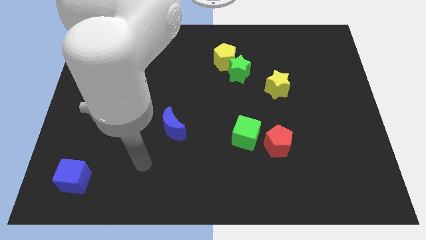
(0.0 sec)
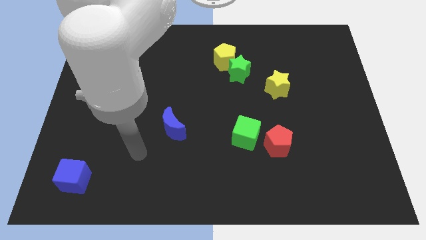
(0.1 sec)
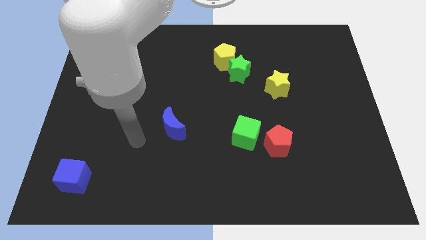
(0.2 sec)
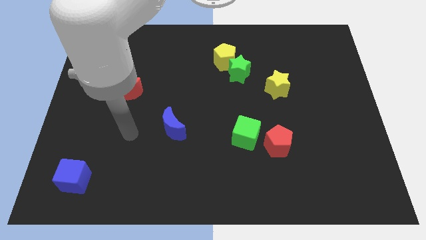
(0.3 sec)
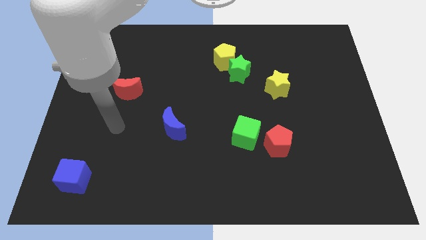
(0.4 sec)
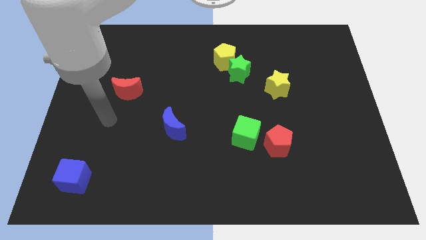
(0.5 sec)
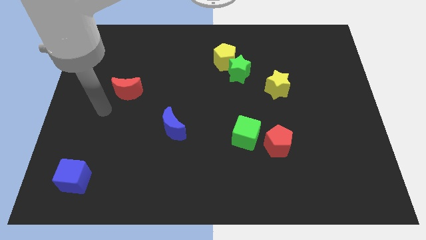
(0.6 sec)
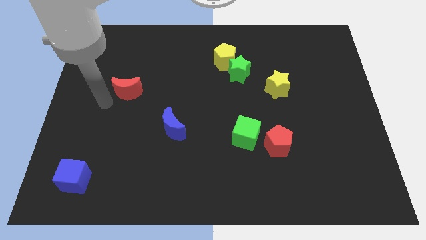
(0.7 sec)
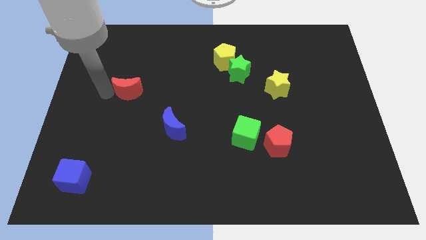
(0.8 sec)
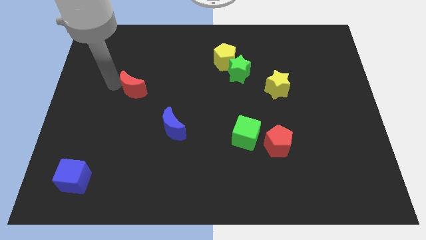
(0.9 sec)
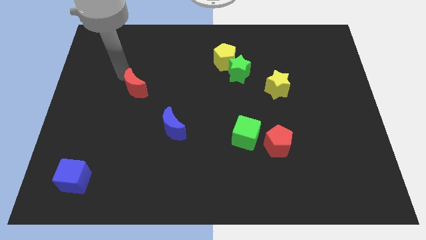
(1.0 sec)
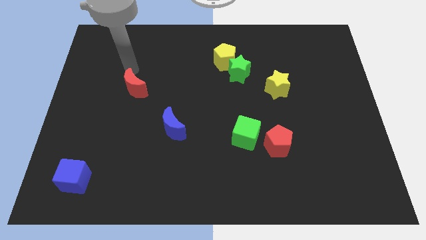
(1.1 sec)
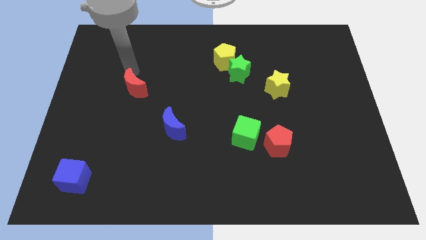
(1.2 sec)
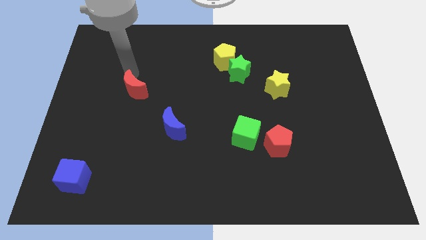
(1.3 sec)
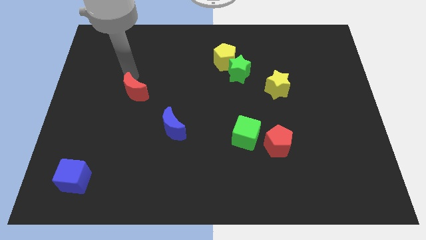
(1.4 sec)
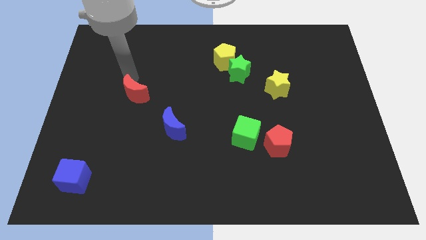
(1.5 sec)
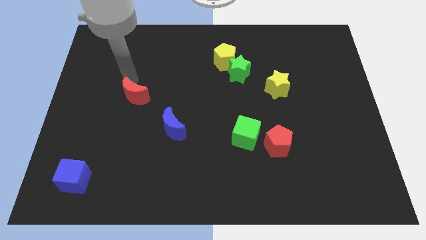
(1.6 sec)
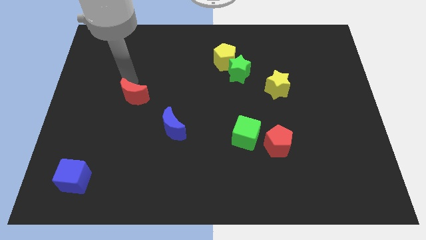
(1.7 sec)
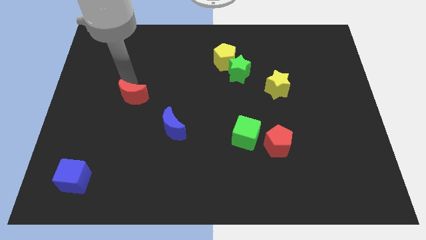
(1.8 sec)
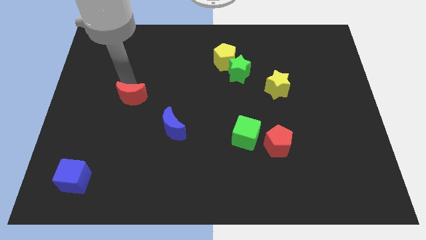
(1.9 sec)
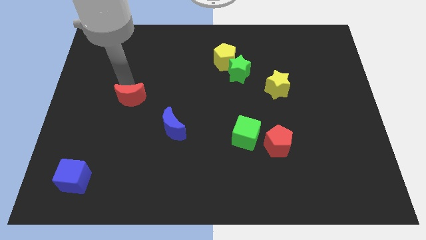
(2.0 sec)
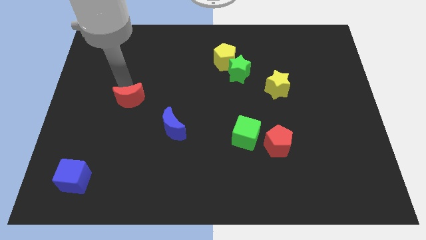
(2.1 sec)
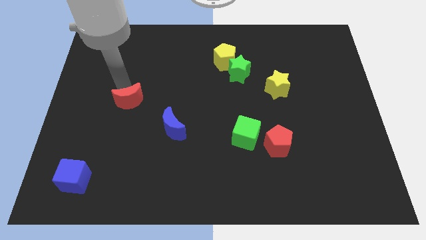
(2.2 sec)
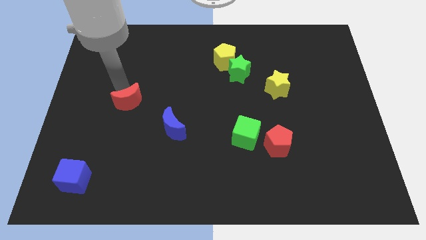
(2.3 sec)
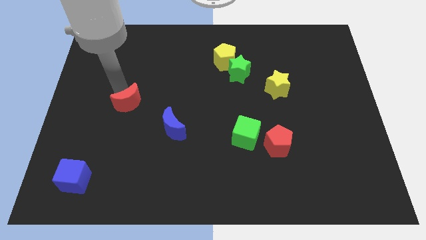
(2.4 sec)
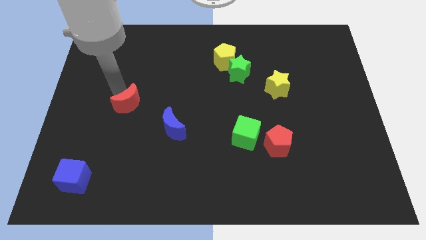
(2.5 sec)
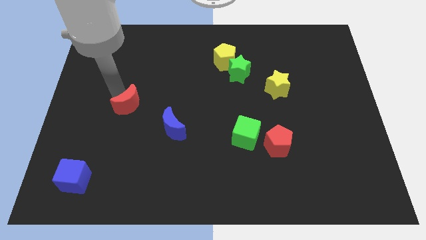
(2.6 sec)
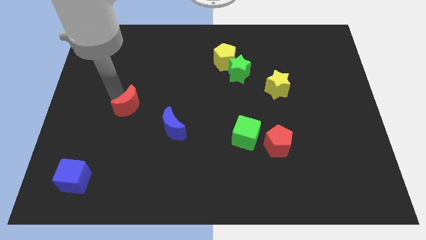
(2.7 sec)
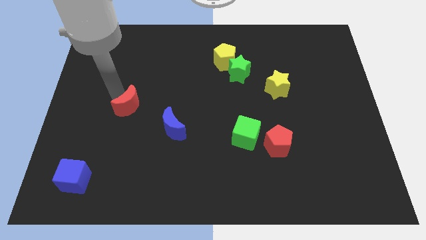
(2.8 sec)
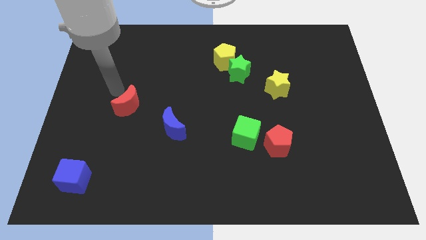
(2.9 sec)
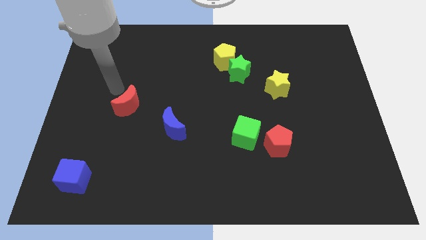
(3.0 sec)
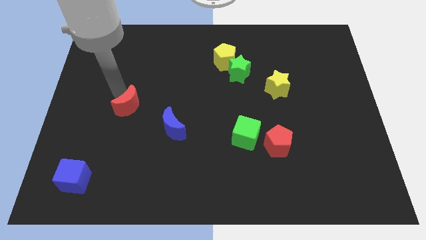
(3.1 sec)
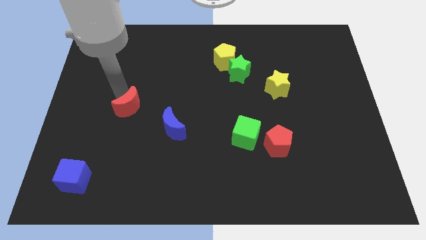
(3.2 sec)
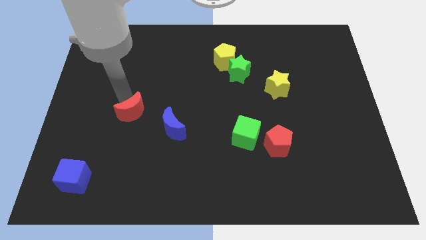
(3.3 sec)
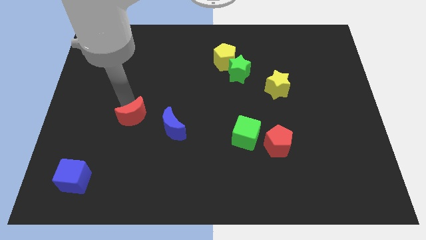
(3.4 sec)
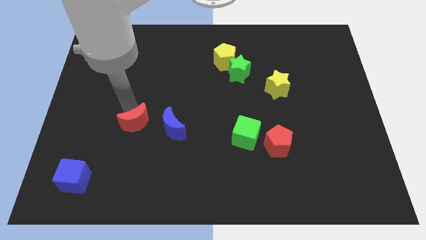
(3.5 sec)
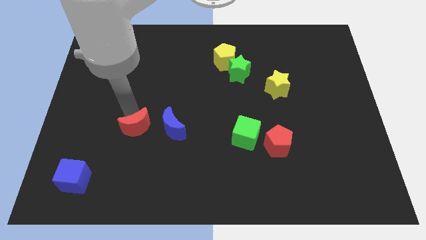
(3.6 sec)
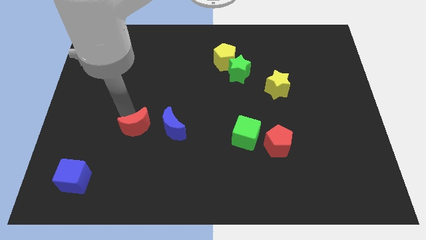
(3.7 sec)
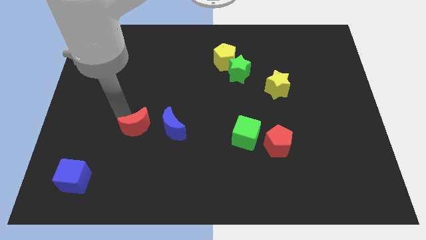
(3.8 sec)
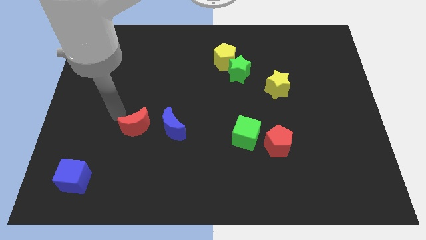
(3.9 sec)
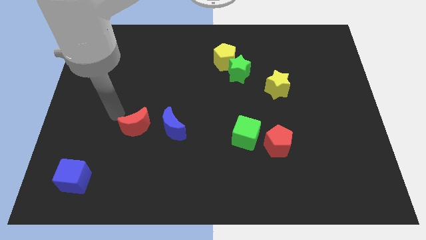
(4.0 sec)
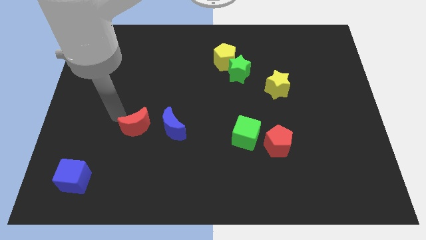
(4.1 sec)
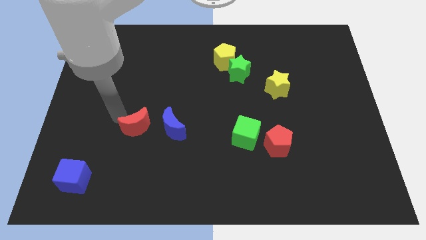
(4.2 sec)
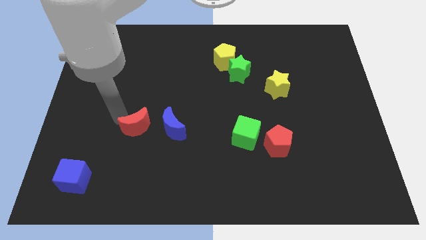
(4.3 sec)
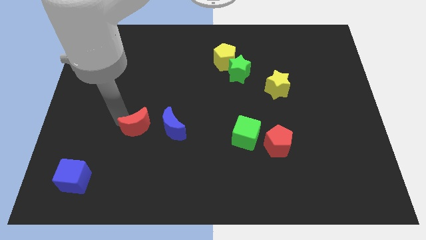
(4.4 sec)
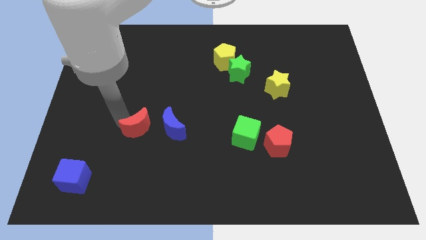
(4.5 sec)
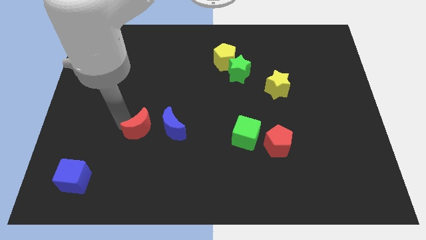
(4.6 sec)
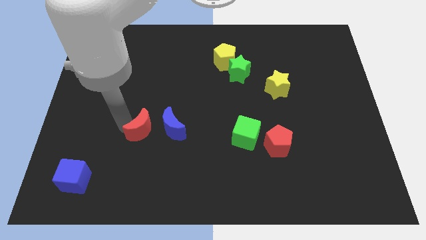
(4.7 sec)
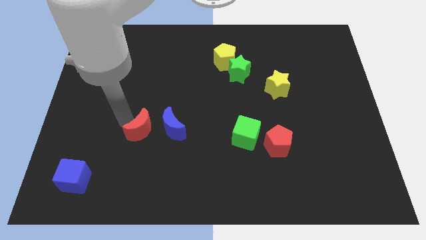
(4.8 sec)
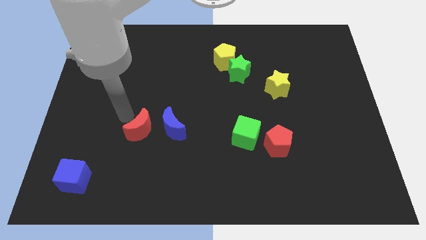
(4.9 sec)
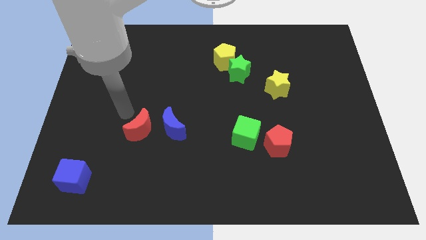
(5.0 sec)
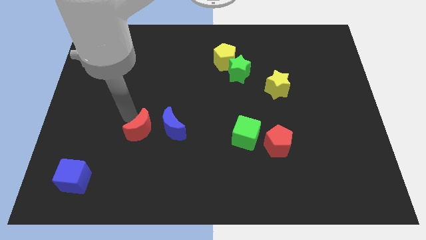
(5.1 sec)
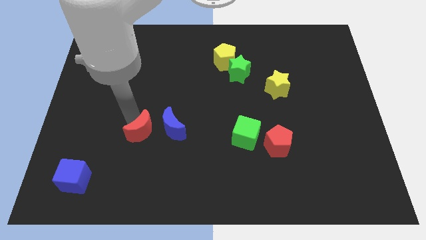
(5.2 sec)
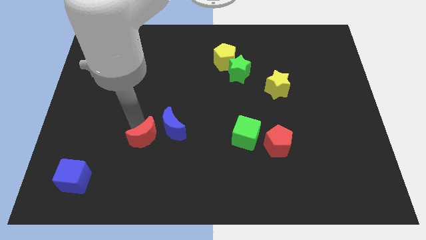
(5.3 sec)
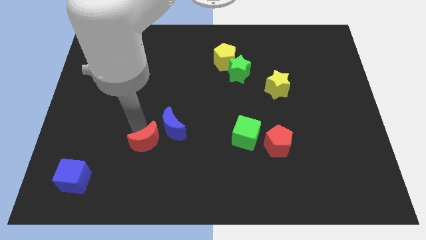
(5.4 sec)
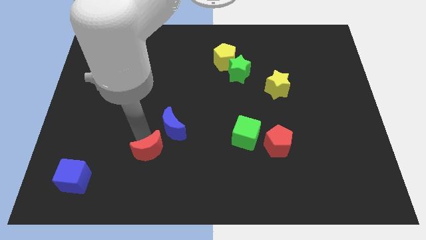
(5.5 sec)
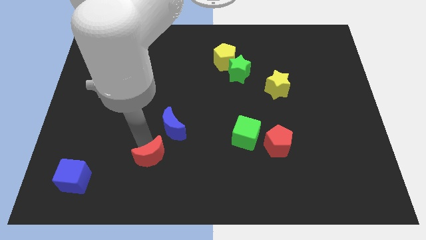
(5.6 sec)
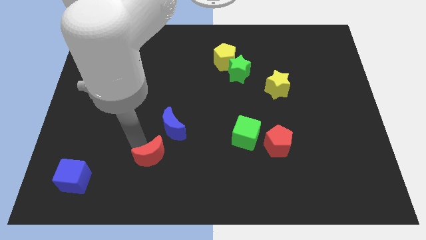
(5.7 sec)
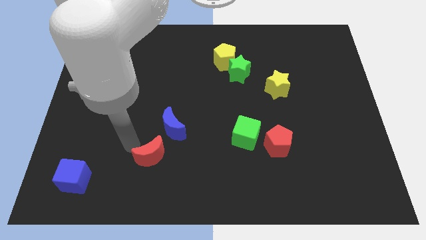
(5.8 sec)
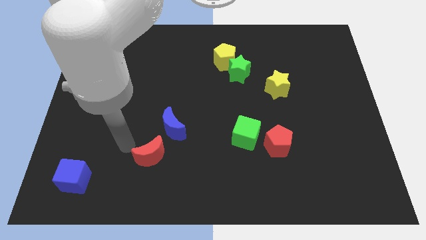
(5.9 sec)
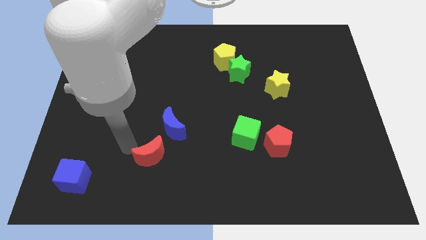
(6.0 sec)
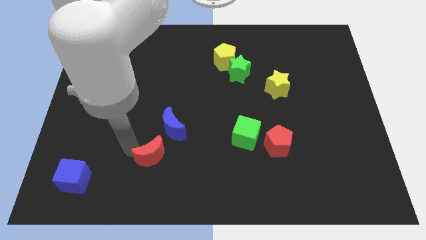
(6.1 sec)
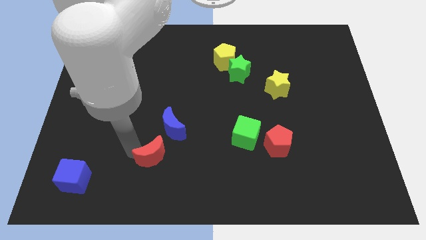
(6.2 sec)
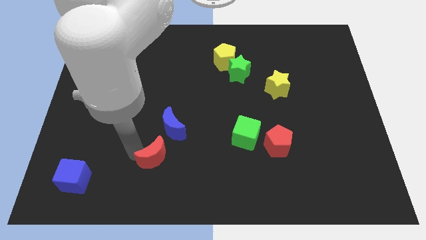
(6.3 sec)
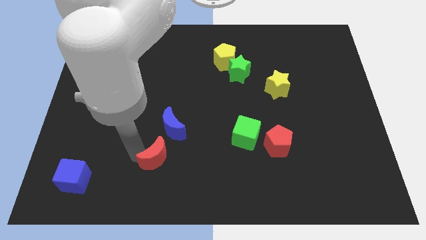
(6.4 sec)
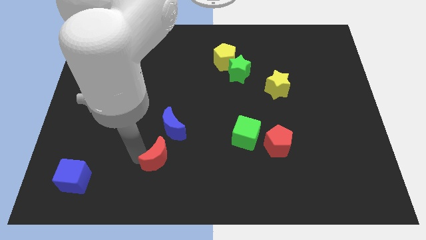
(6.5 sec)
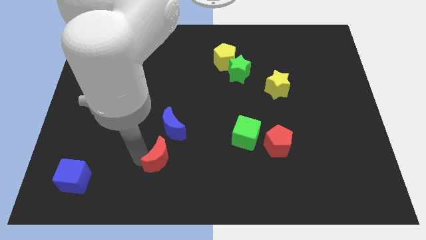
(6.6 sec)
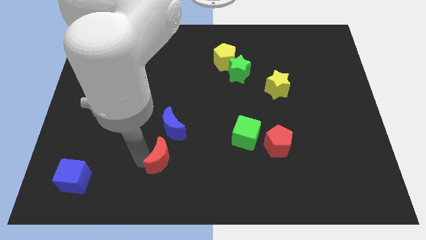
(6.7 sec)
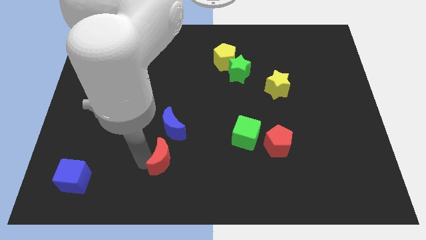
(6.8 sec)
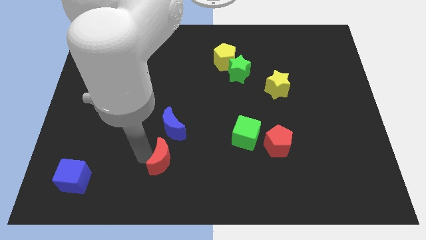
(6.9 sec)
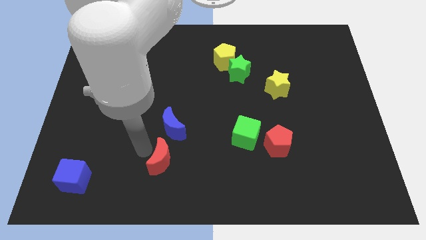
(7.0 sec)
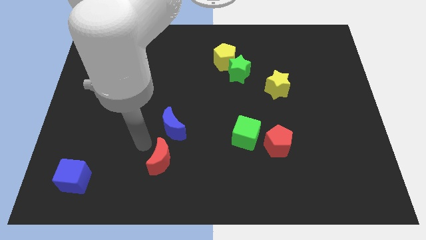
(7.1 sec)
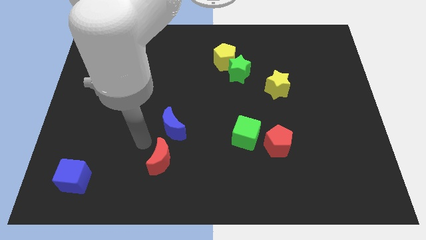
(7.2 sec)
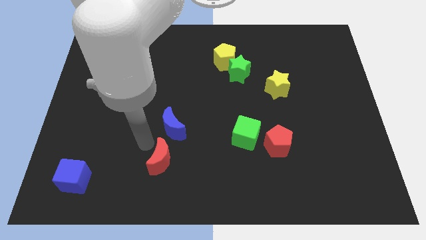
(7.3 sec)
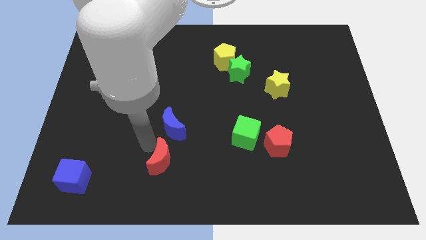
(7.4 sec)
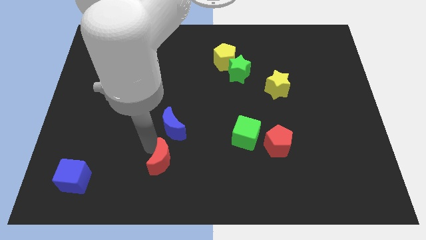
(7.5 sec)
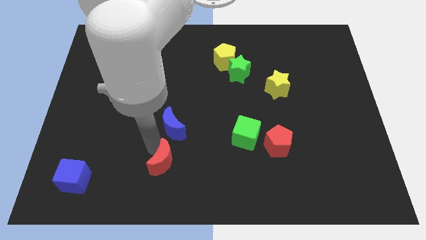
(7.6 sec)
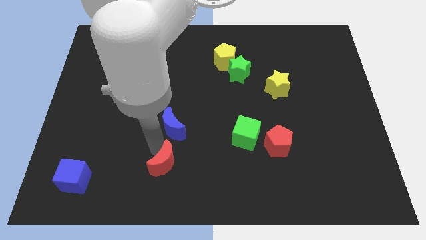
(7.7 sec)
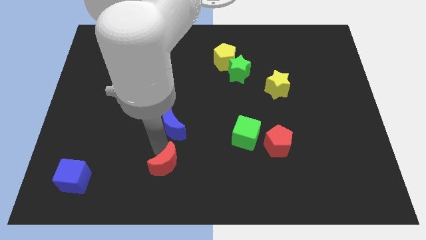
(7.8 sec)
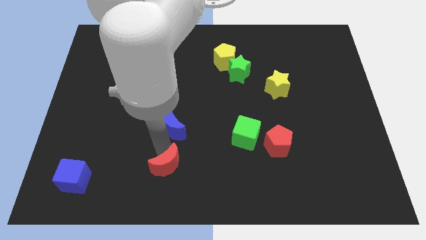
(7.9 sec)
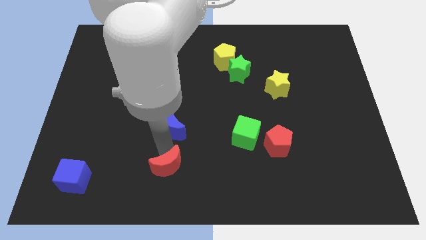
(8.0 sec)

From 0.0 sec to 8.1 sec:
move the red moon to the bottom side
